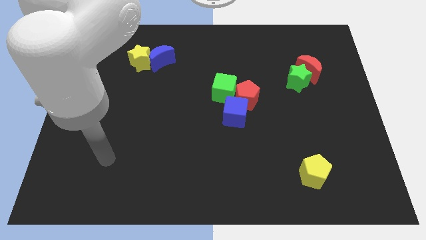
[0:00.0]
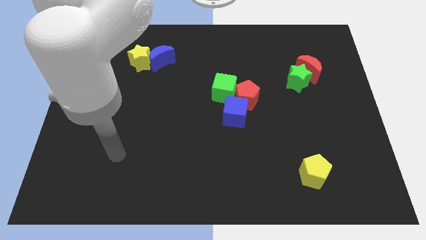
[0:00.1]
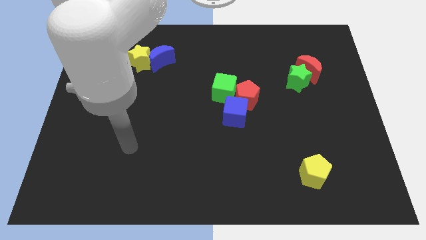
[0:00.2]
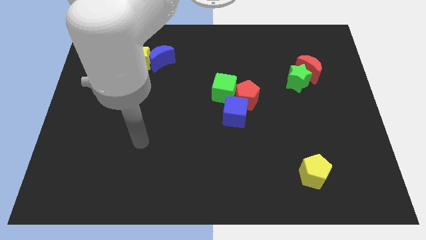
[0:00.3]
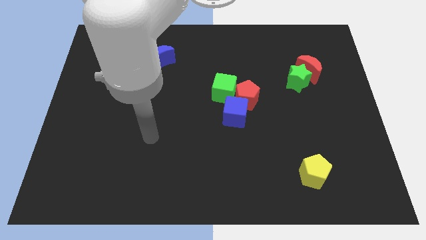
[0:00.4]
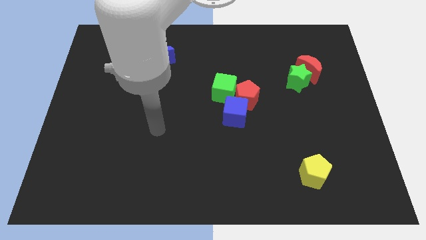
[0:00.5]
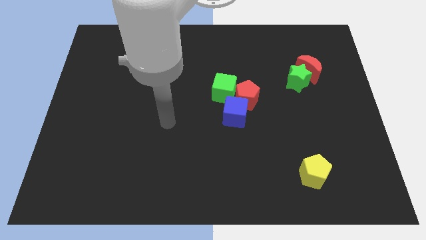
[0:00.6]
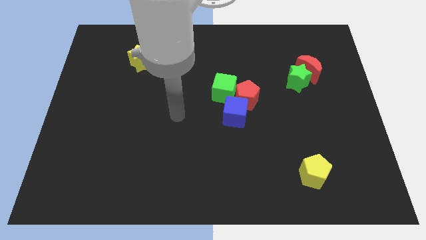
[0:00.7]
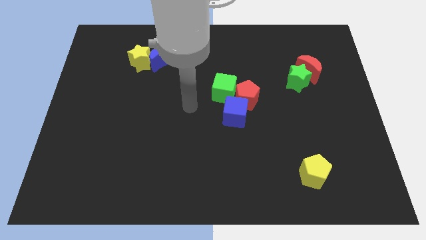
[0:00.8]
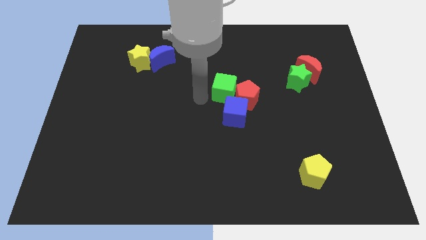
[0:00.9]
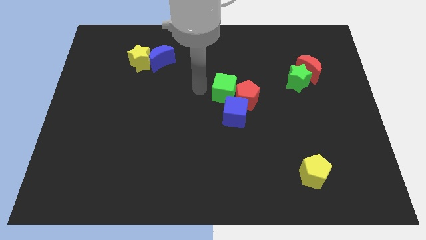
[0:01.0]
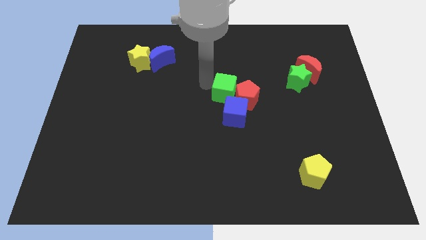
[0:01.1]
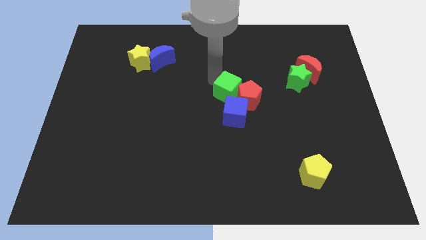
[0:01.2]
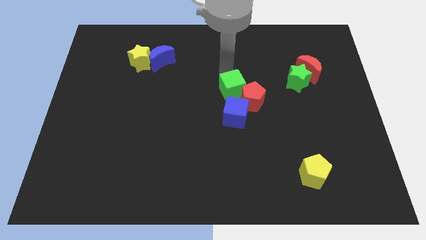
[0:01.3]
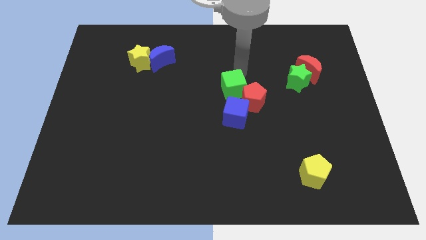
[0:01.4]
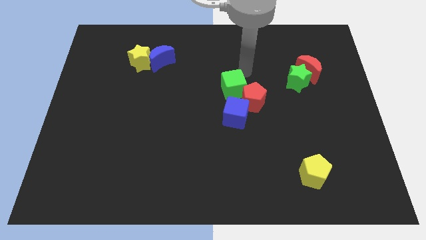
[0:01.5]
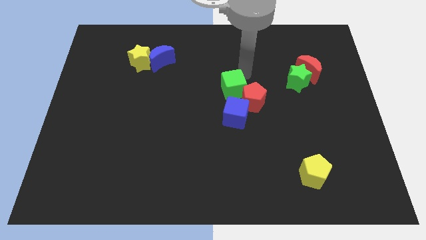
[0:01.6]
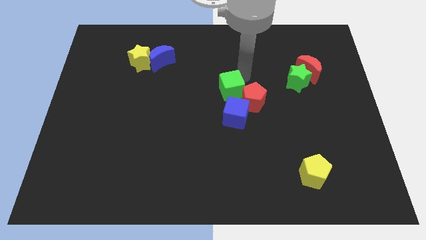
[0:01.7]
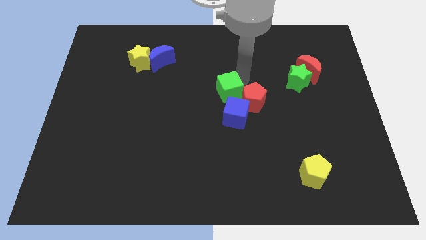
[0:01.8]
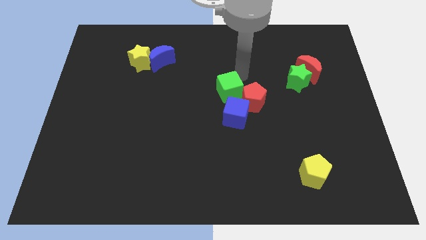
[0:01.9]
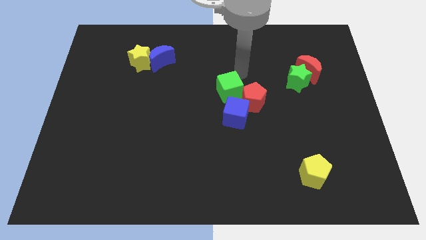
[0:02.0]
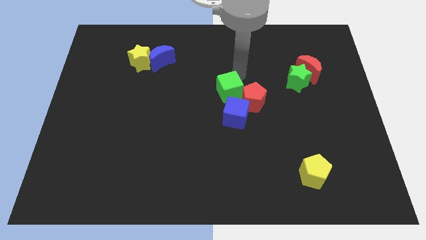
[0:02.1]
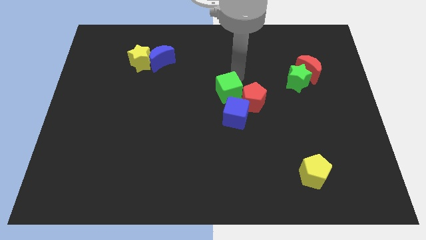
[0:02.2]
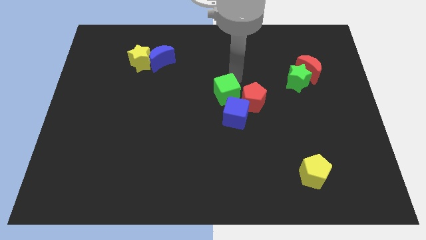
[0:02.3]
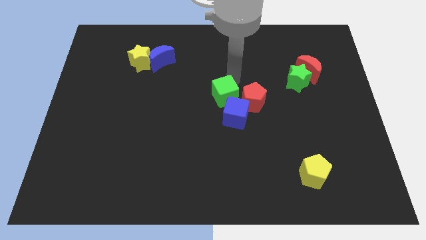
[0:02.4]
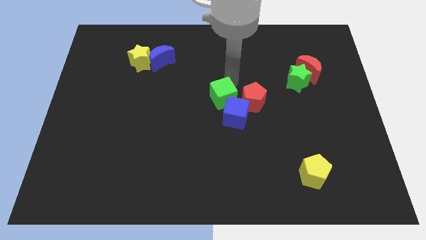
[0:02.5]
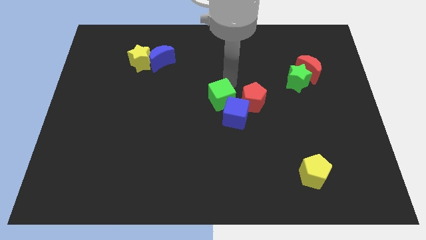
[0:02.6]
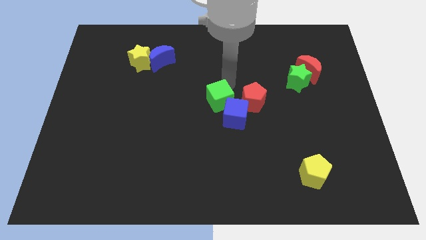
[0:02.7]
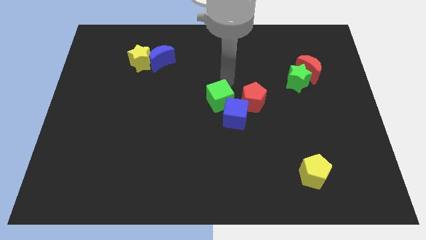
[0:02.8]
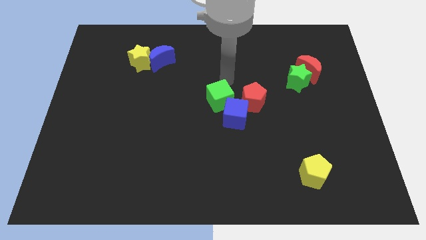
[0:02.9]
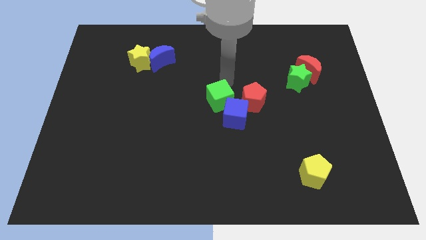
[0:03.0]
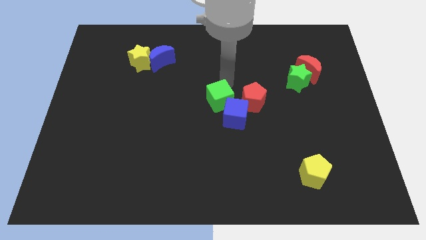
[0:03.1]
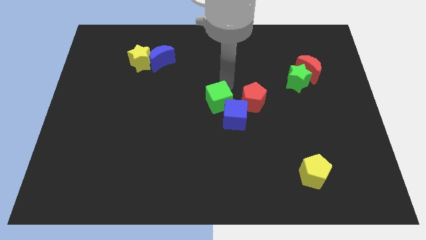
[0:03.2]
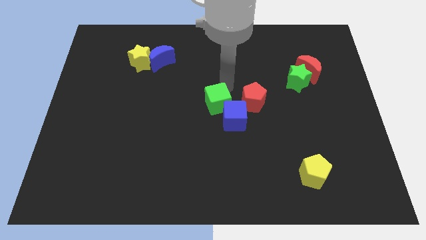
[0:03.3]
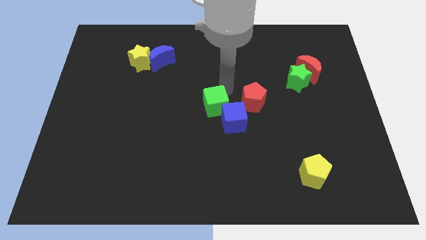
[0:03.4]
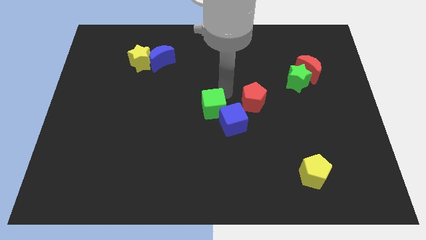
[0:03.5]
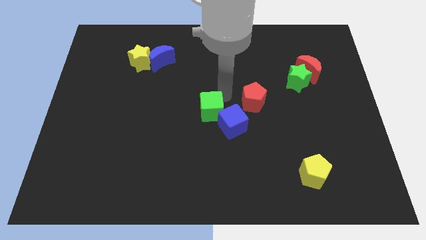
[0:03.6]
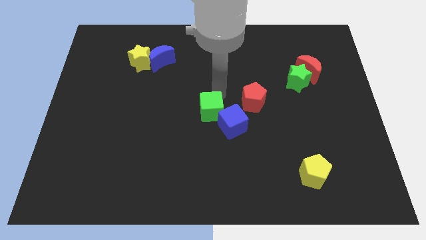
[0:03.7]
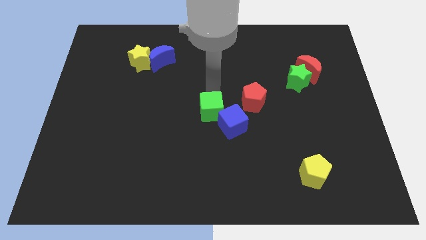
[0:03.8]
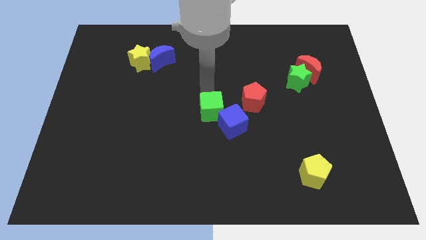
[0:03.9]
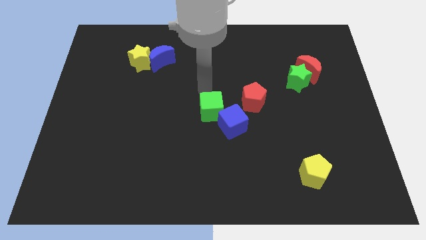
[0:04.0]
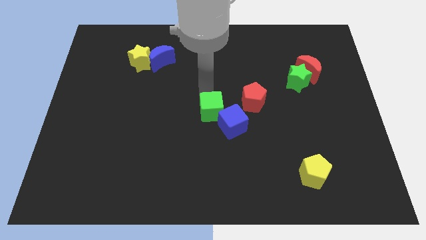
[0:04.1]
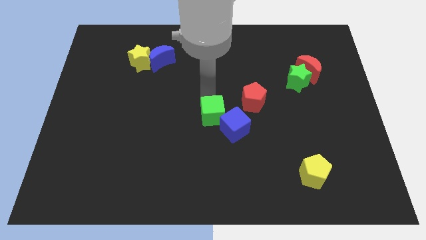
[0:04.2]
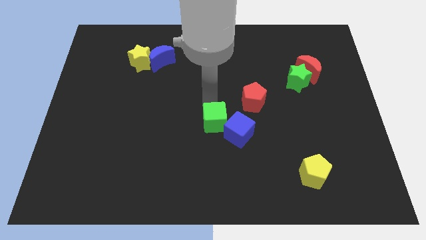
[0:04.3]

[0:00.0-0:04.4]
move the green cube somewhat down

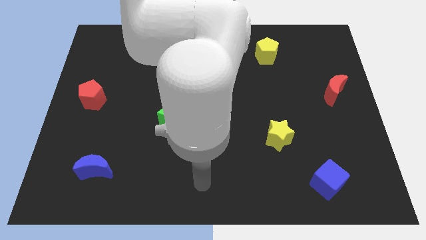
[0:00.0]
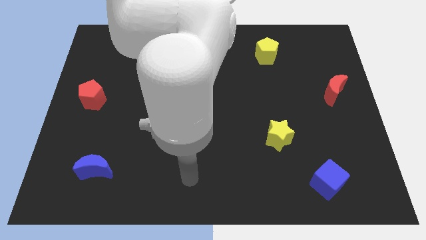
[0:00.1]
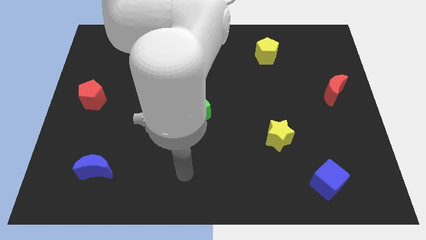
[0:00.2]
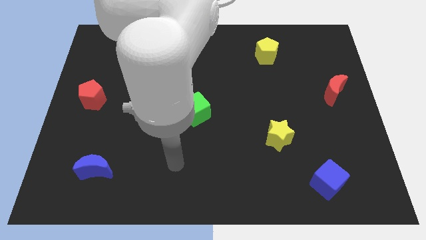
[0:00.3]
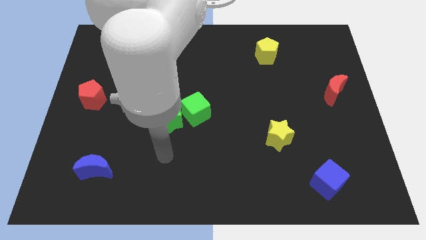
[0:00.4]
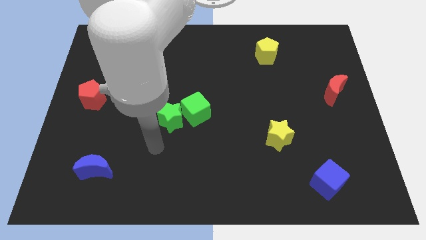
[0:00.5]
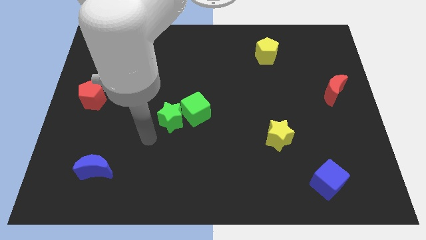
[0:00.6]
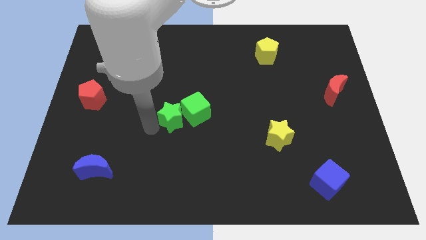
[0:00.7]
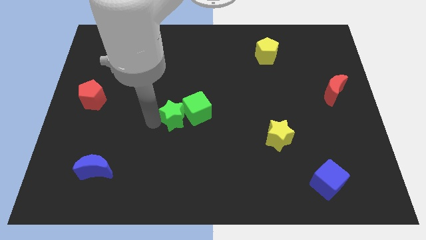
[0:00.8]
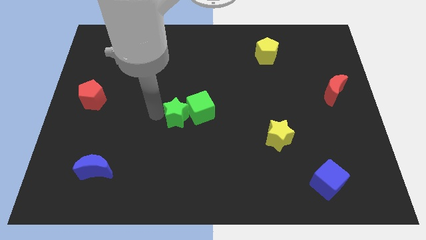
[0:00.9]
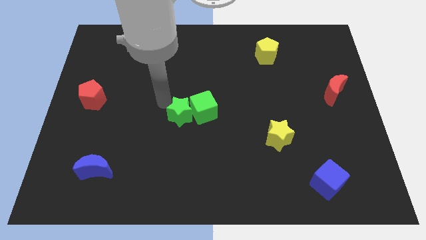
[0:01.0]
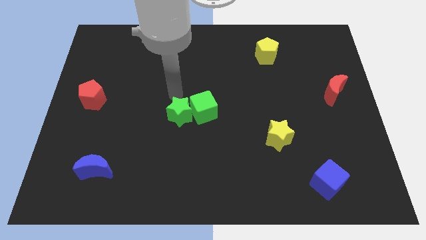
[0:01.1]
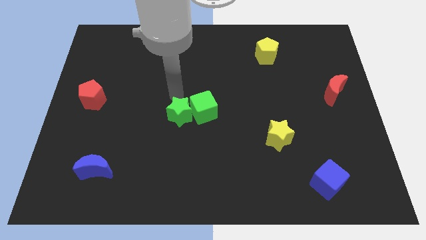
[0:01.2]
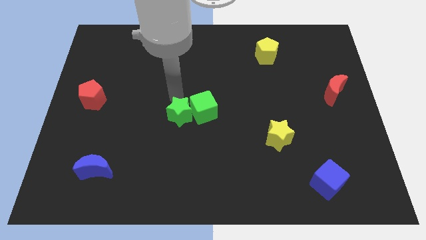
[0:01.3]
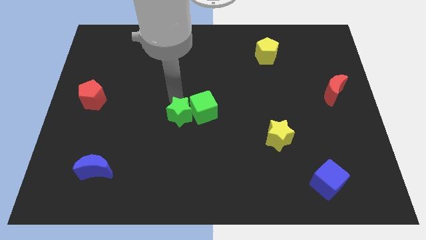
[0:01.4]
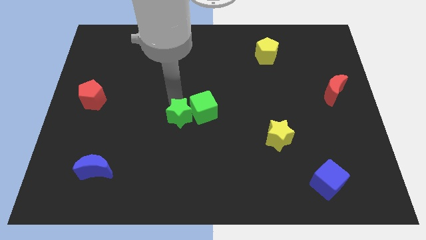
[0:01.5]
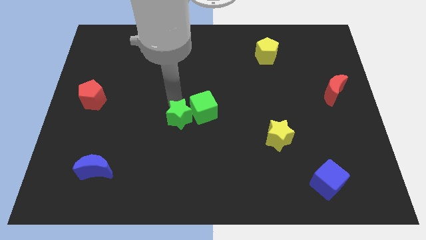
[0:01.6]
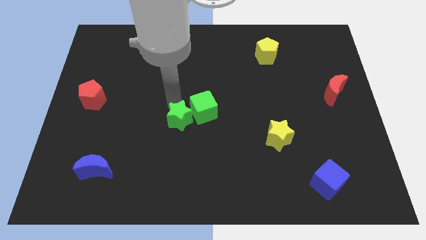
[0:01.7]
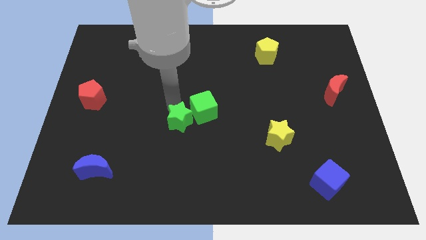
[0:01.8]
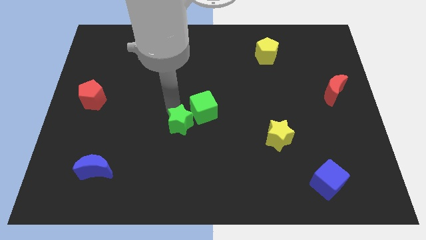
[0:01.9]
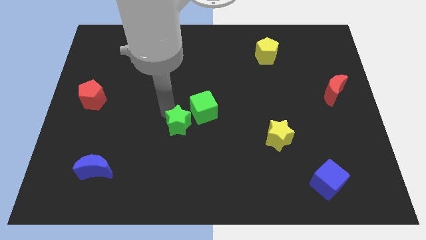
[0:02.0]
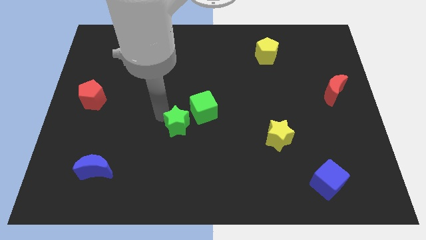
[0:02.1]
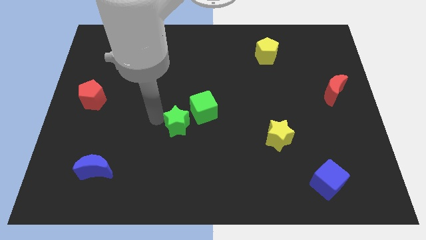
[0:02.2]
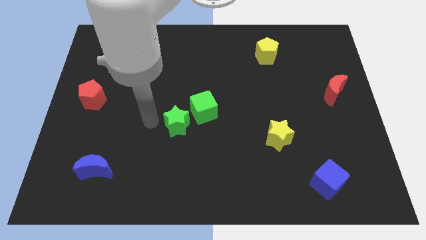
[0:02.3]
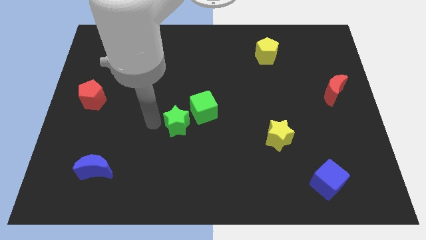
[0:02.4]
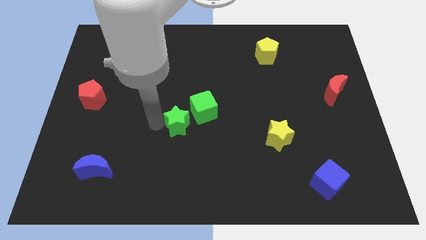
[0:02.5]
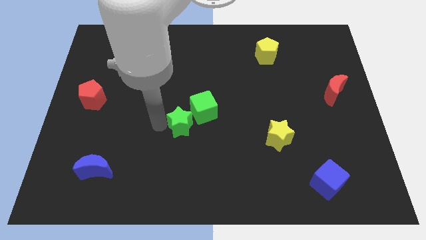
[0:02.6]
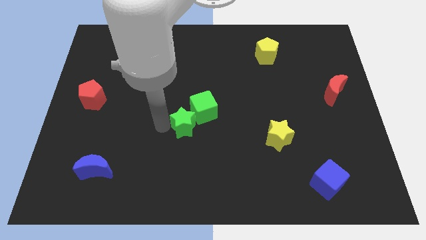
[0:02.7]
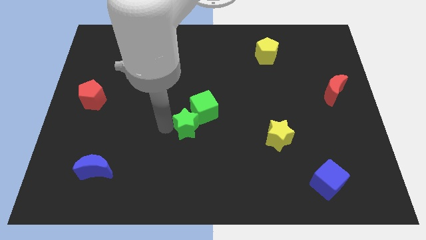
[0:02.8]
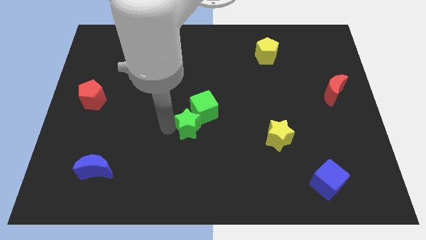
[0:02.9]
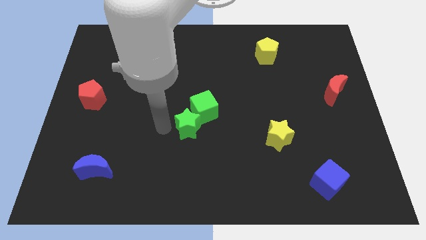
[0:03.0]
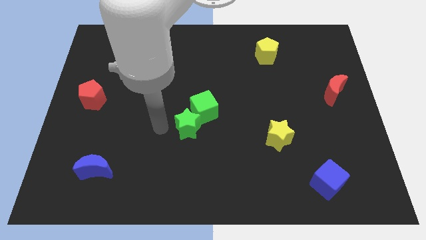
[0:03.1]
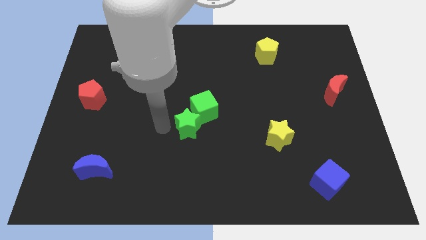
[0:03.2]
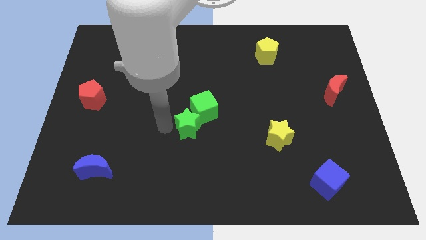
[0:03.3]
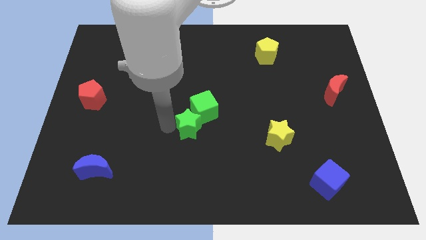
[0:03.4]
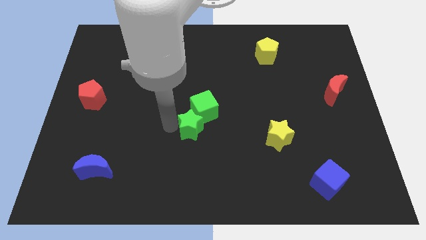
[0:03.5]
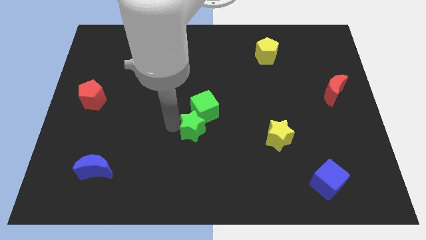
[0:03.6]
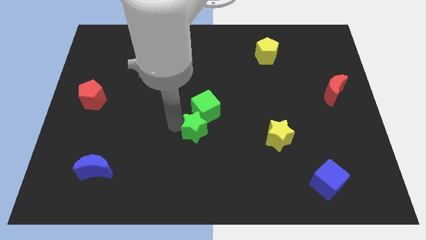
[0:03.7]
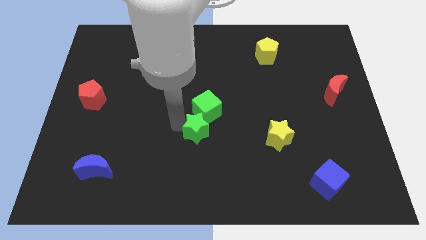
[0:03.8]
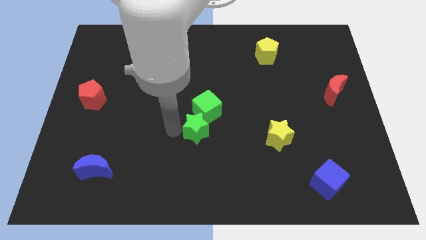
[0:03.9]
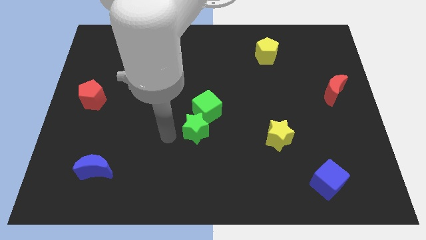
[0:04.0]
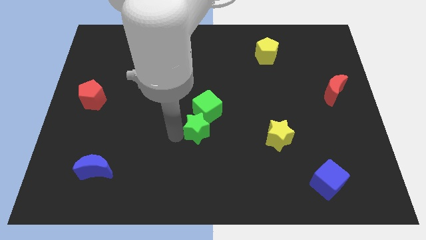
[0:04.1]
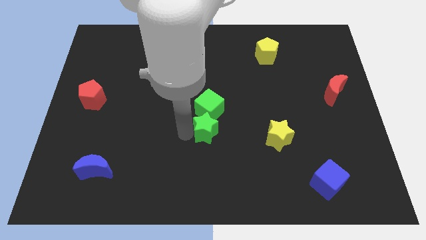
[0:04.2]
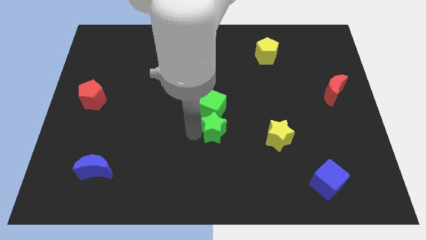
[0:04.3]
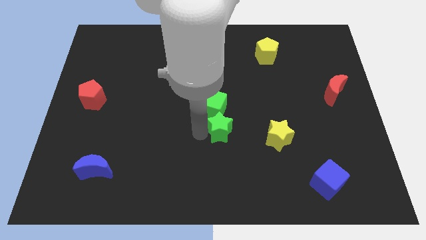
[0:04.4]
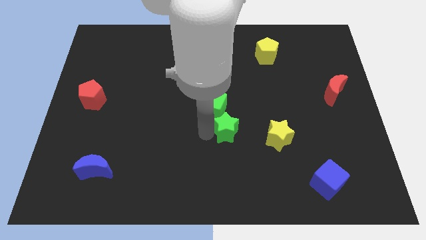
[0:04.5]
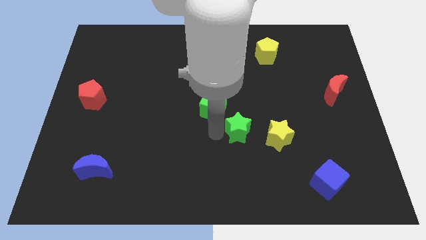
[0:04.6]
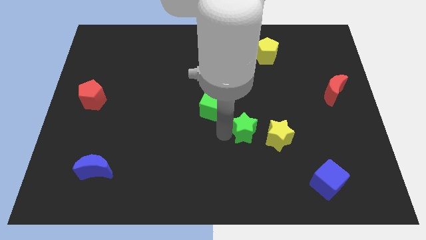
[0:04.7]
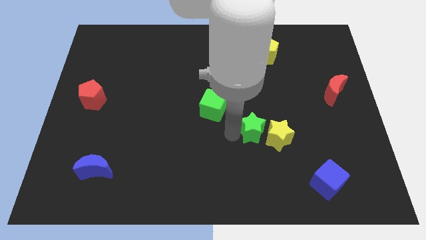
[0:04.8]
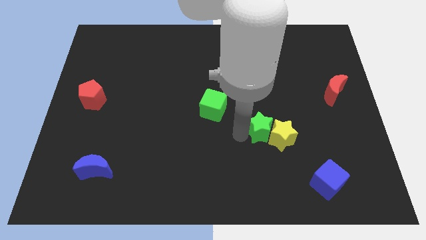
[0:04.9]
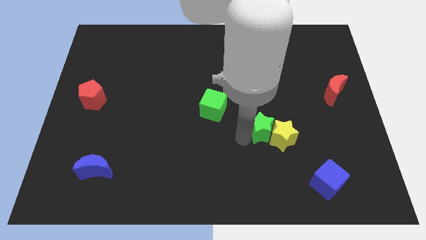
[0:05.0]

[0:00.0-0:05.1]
slide the green star right
